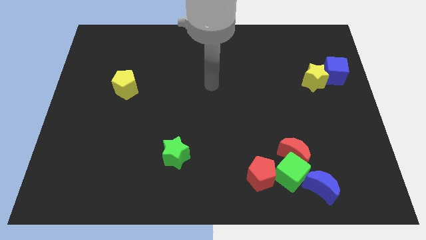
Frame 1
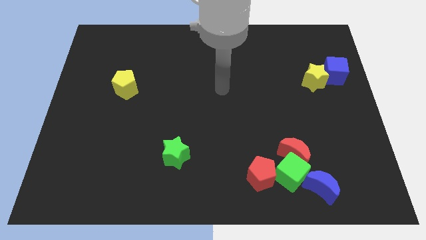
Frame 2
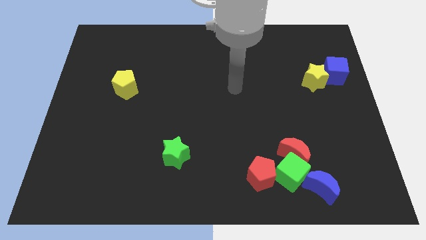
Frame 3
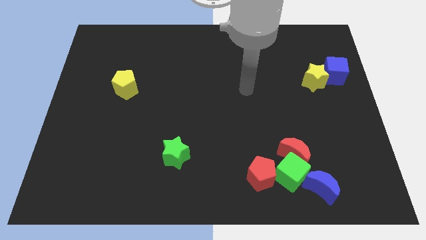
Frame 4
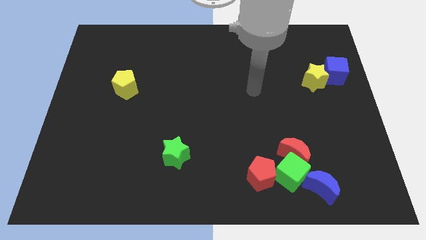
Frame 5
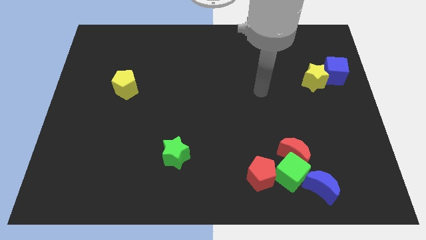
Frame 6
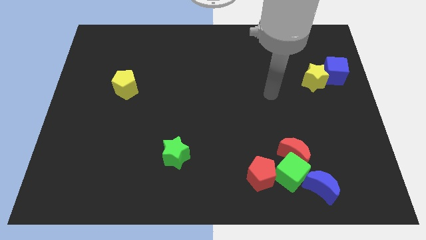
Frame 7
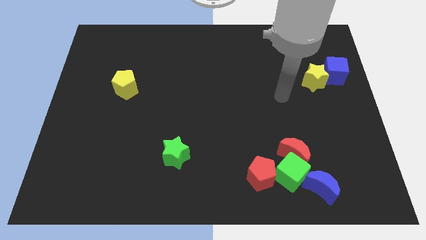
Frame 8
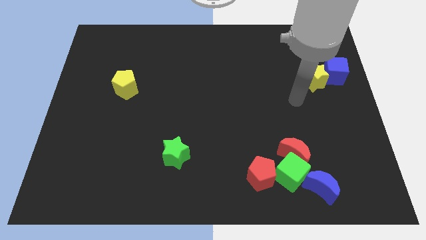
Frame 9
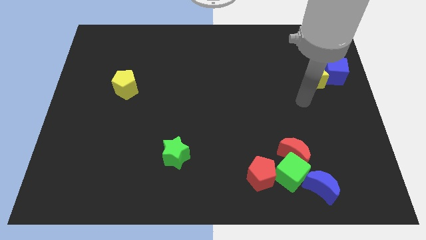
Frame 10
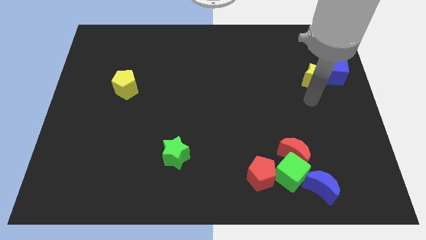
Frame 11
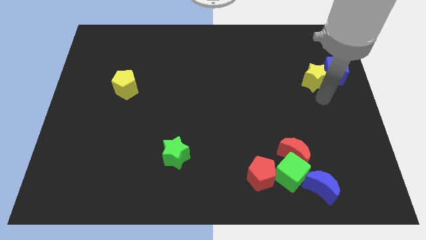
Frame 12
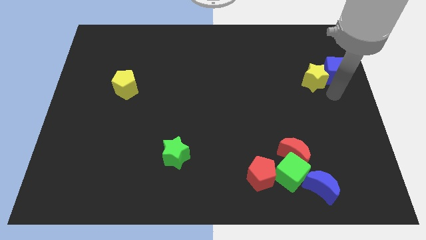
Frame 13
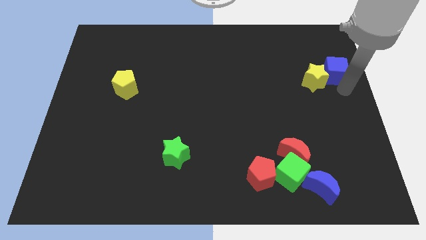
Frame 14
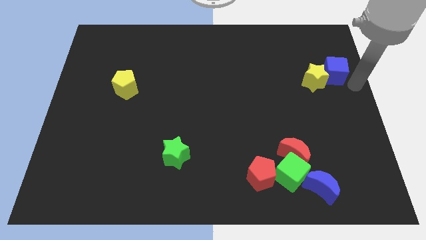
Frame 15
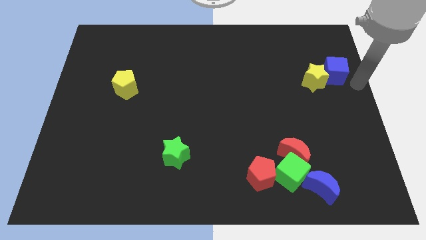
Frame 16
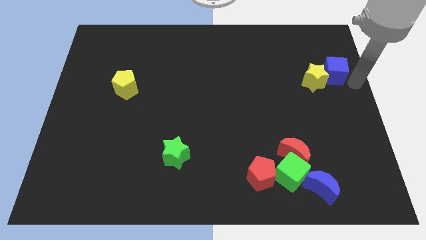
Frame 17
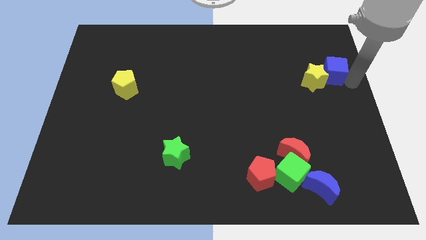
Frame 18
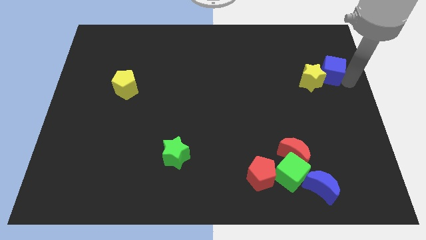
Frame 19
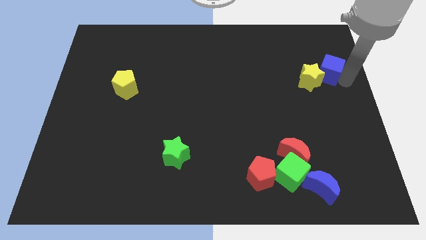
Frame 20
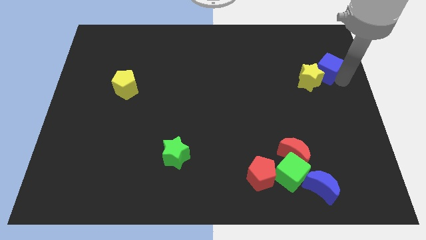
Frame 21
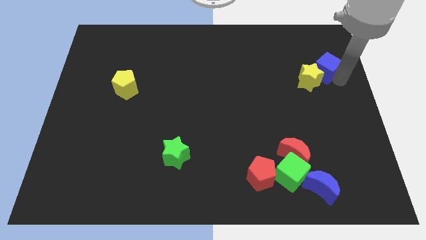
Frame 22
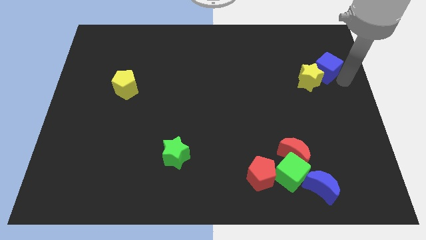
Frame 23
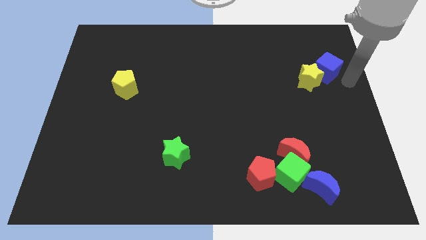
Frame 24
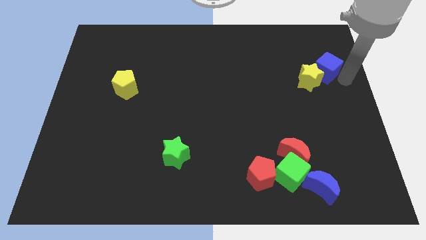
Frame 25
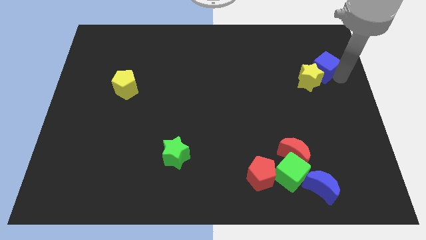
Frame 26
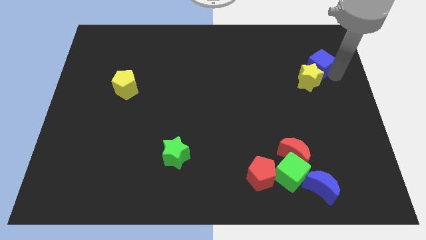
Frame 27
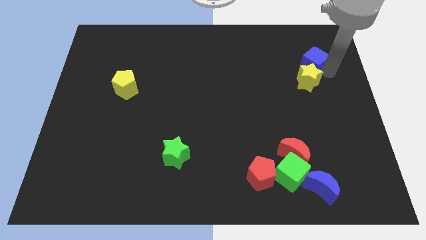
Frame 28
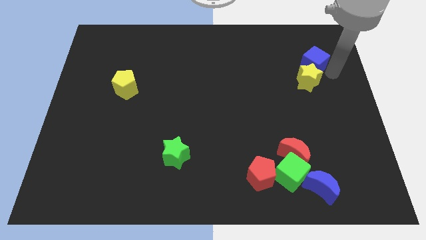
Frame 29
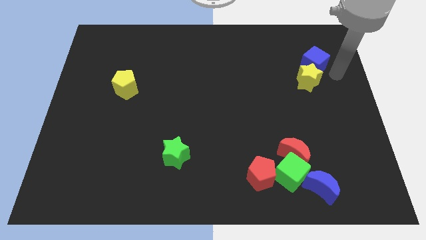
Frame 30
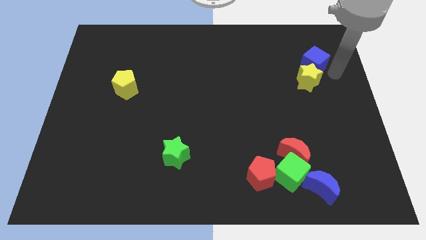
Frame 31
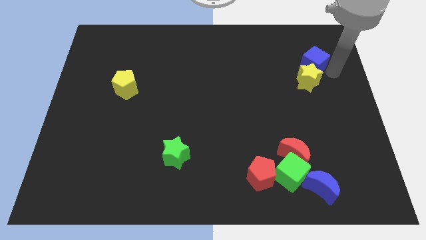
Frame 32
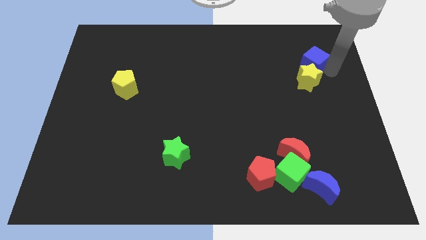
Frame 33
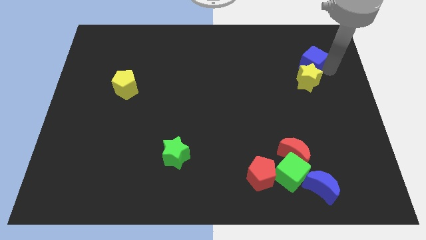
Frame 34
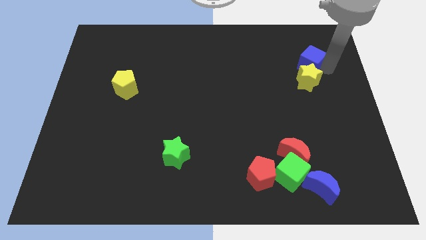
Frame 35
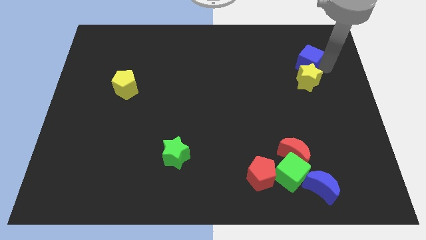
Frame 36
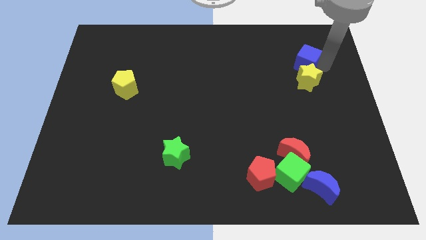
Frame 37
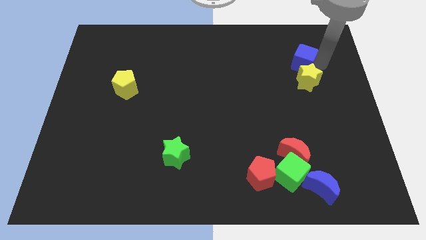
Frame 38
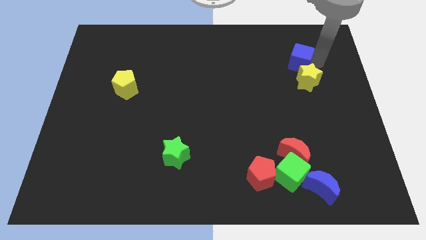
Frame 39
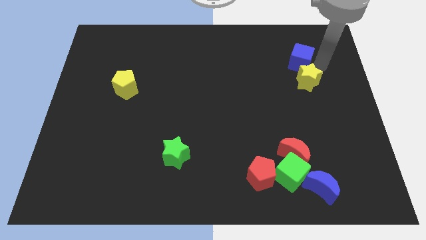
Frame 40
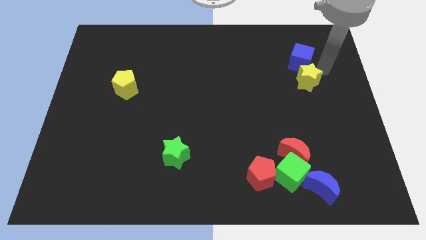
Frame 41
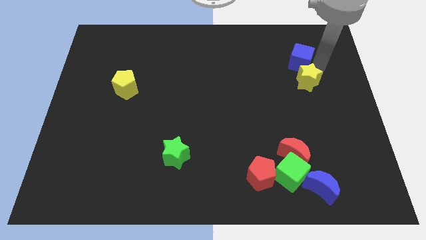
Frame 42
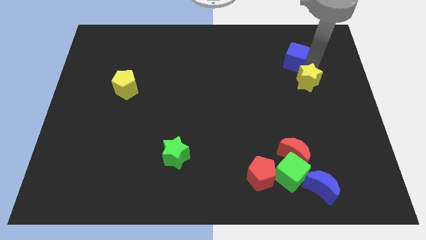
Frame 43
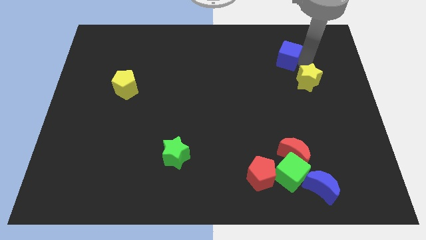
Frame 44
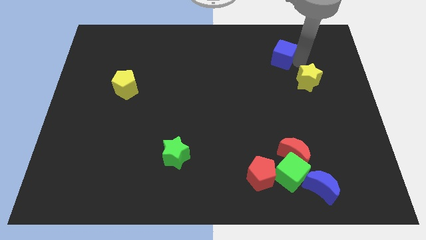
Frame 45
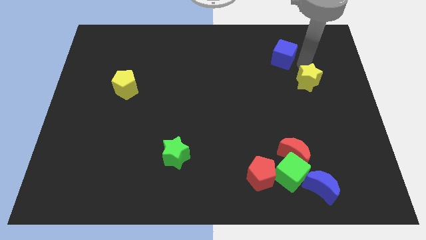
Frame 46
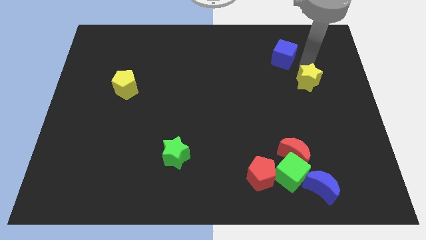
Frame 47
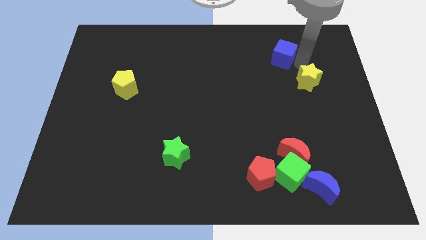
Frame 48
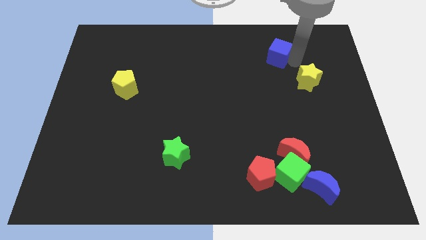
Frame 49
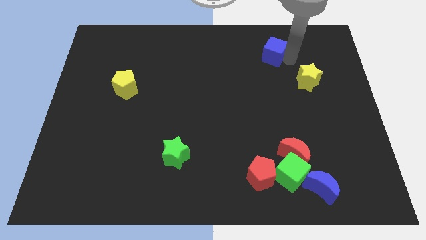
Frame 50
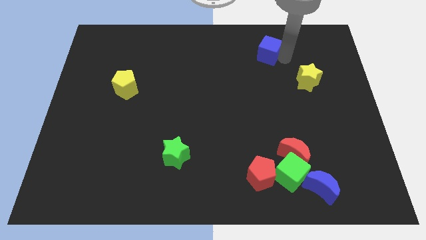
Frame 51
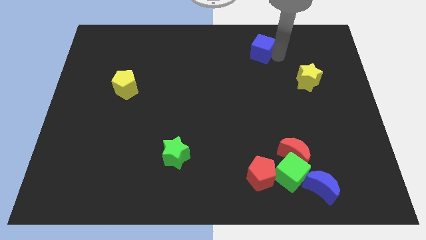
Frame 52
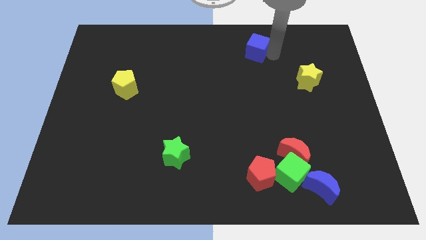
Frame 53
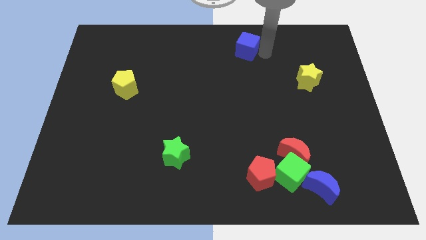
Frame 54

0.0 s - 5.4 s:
put the blue cube to the towards your base

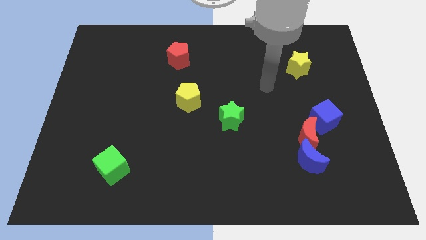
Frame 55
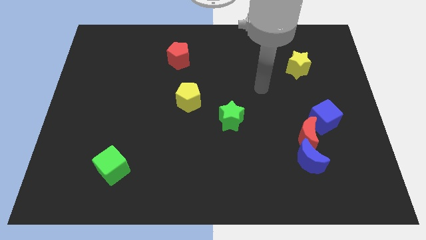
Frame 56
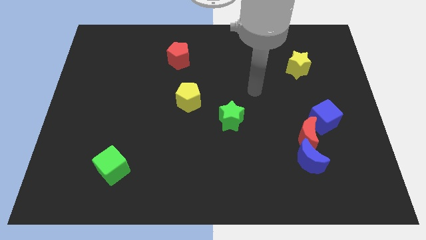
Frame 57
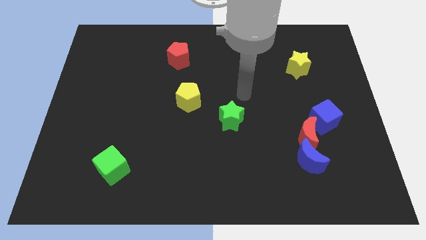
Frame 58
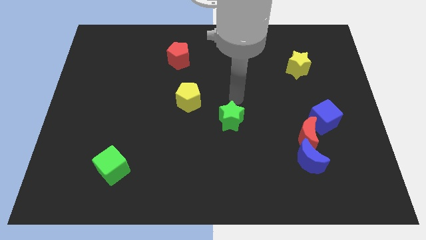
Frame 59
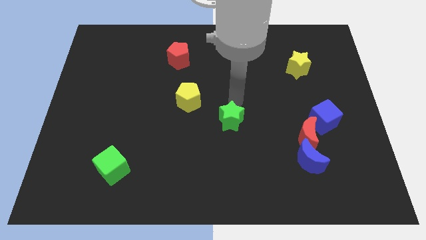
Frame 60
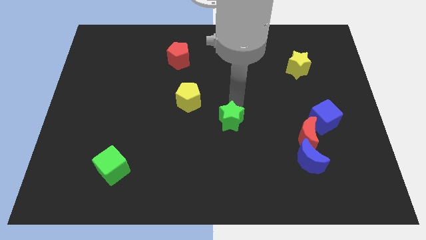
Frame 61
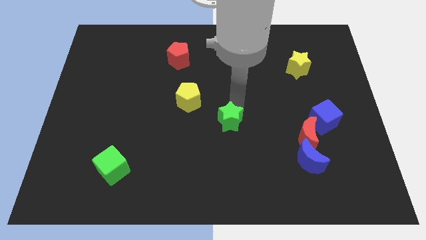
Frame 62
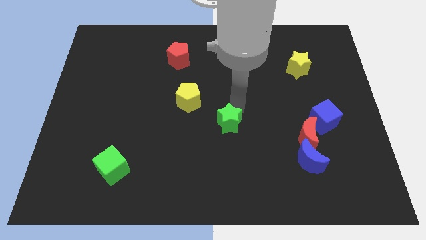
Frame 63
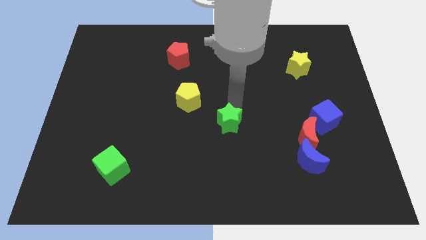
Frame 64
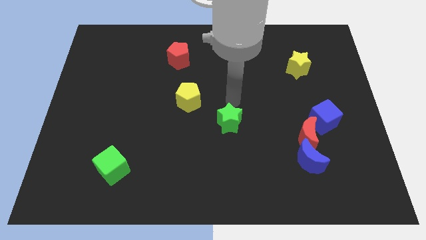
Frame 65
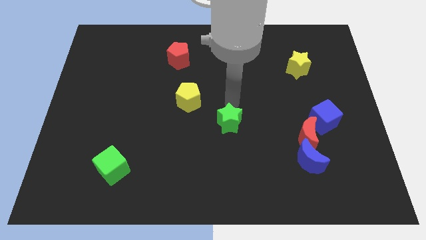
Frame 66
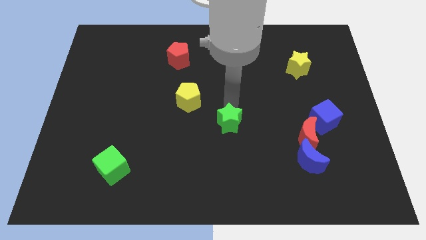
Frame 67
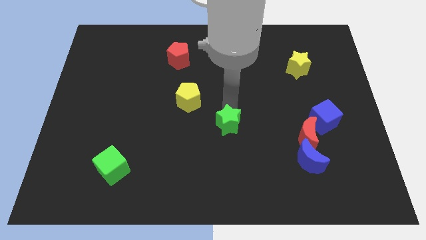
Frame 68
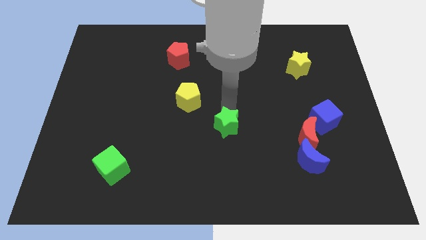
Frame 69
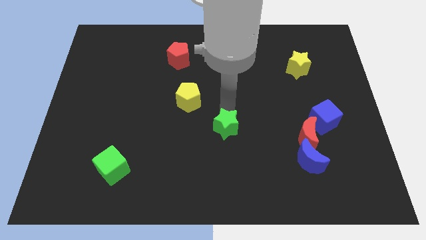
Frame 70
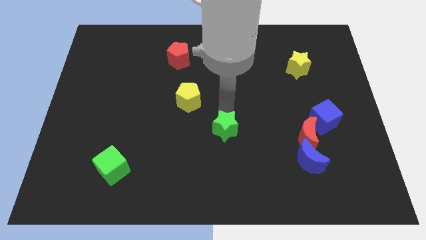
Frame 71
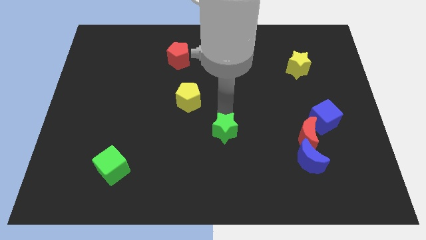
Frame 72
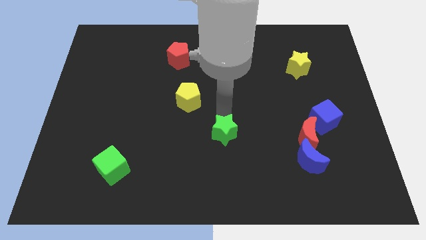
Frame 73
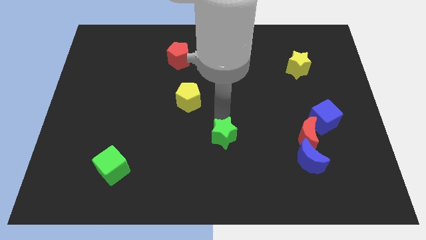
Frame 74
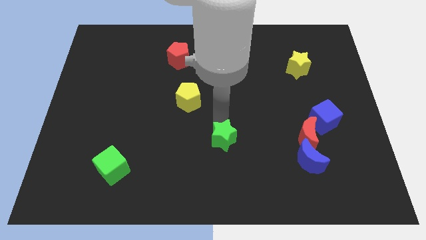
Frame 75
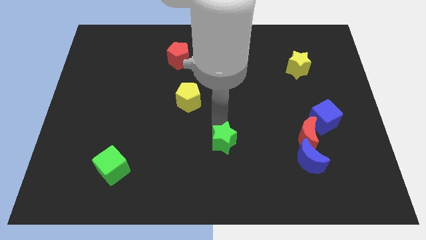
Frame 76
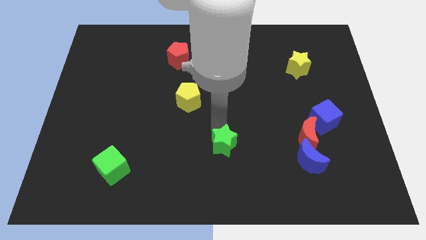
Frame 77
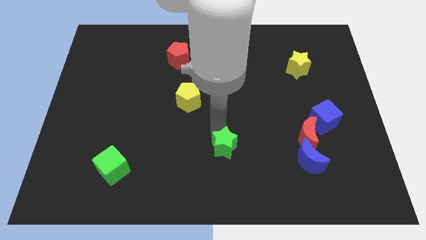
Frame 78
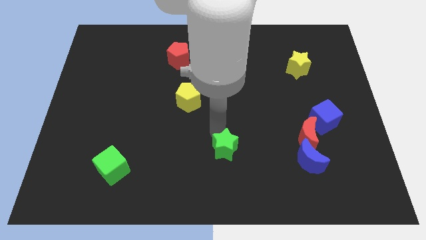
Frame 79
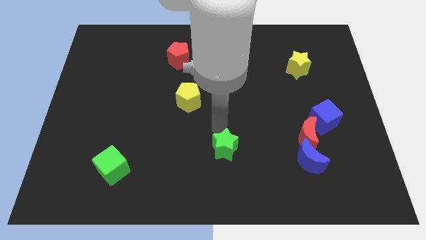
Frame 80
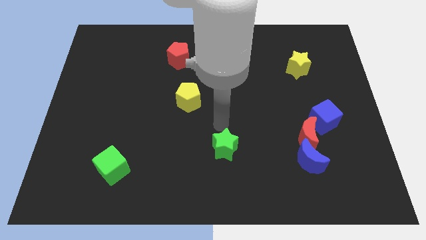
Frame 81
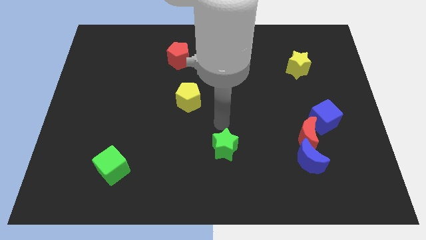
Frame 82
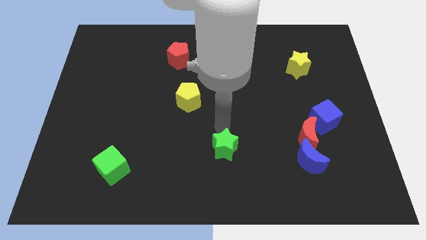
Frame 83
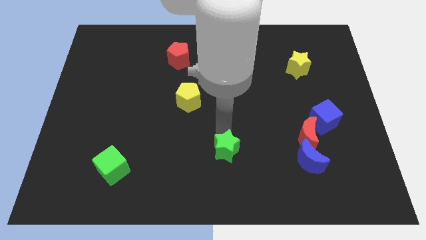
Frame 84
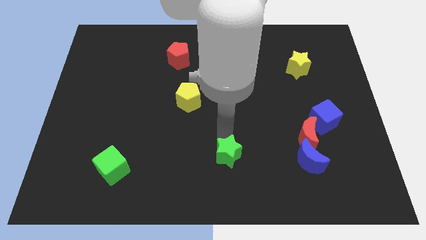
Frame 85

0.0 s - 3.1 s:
push the green star to the bottom side
